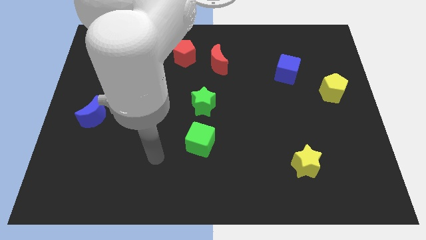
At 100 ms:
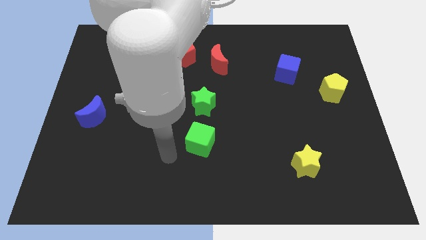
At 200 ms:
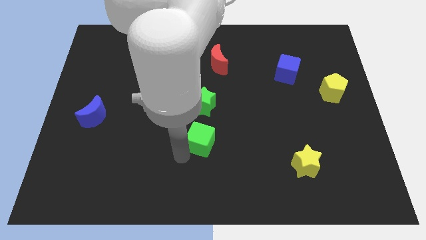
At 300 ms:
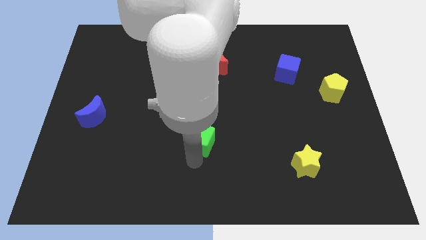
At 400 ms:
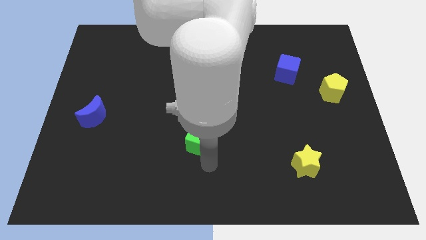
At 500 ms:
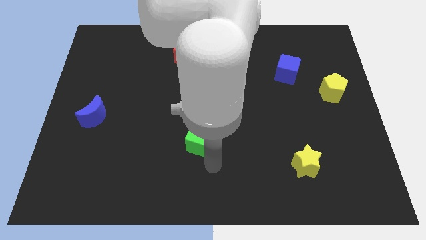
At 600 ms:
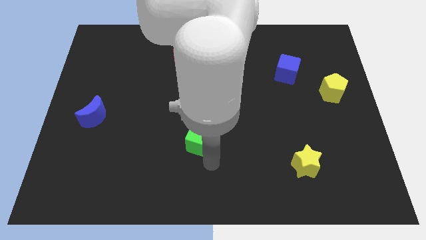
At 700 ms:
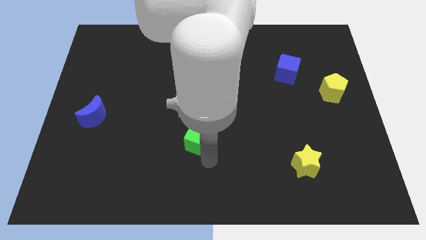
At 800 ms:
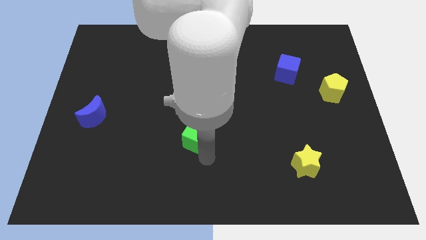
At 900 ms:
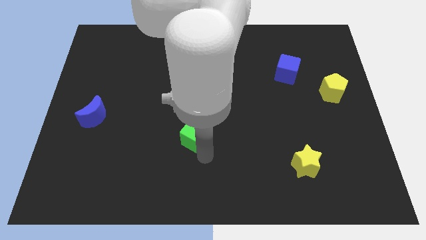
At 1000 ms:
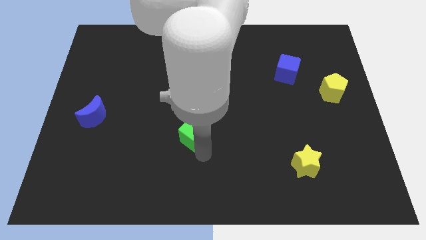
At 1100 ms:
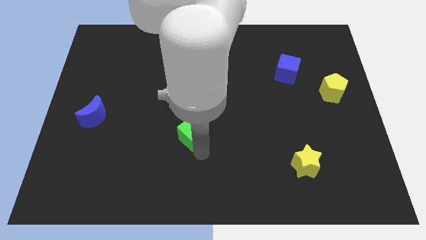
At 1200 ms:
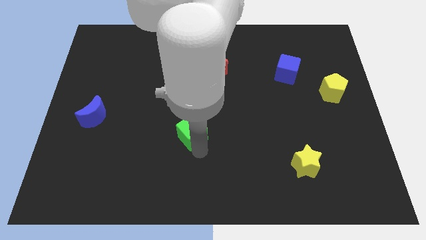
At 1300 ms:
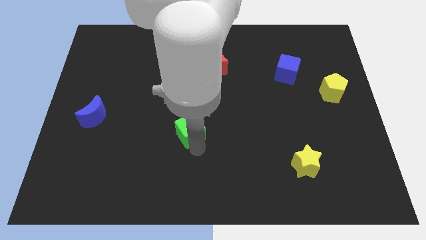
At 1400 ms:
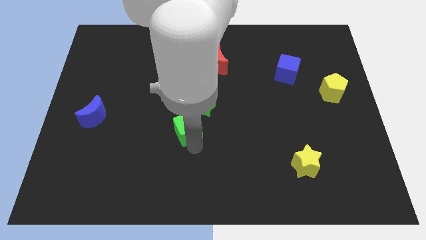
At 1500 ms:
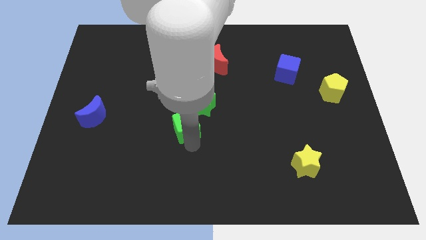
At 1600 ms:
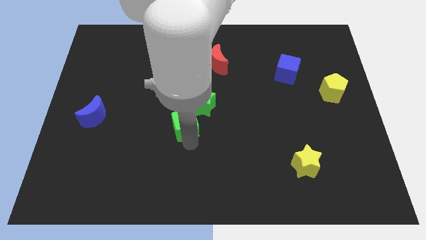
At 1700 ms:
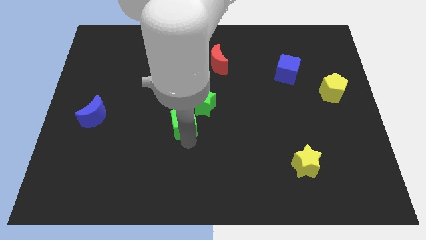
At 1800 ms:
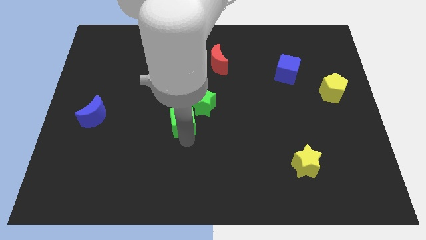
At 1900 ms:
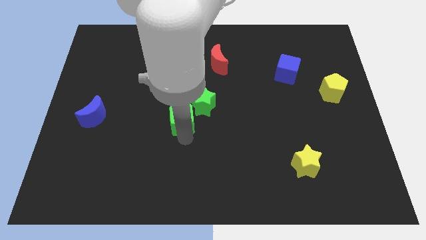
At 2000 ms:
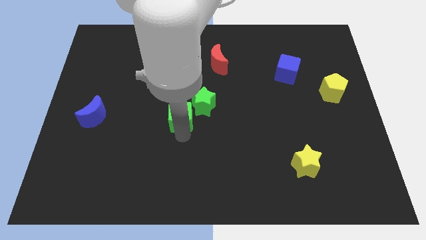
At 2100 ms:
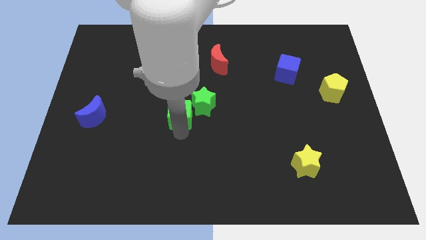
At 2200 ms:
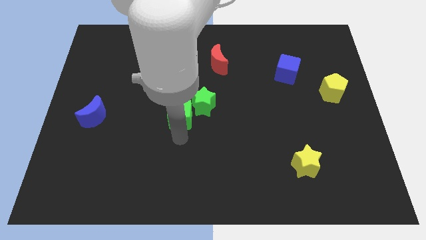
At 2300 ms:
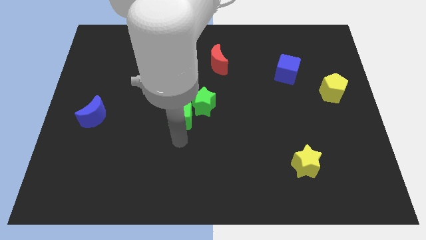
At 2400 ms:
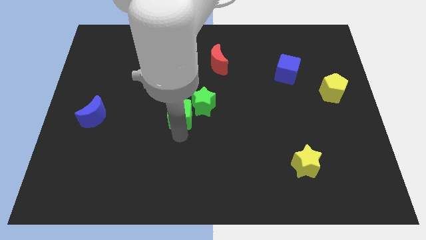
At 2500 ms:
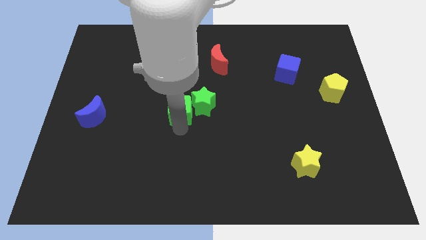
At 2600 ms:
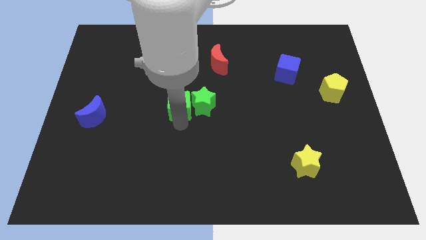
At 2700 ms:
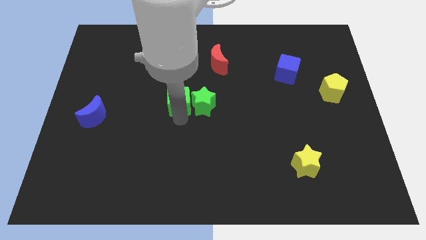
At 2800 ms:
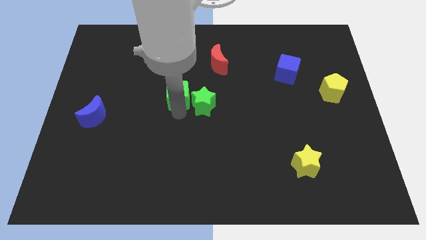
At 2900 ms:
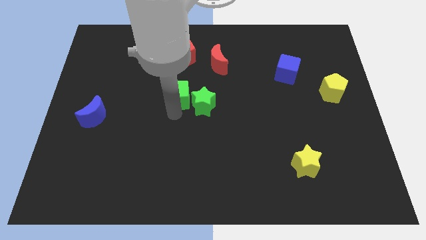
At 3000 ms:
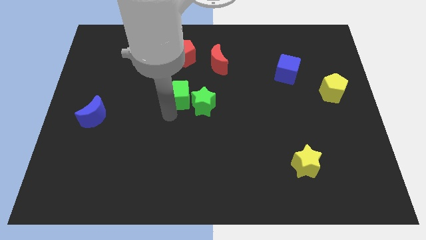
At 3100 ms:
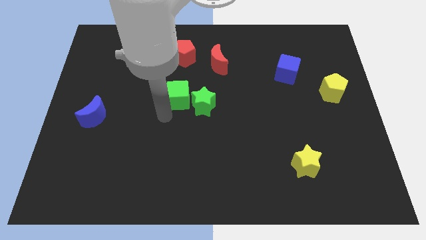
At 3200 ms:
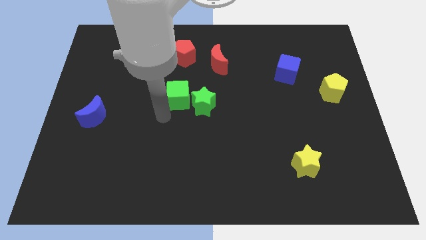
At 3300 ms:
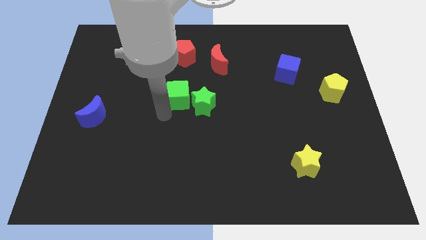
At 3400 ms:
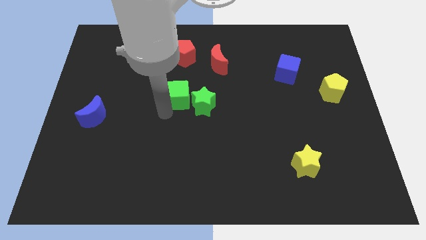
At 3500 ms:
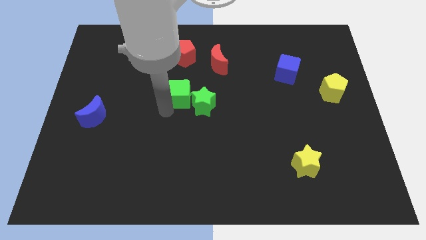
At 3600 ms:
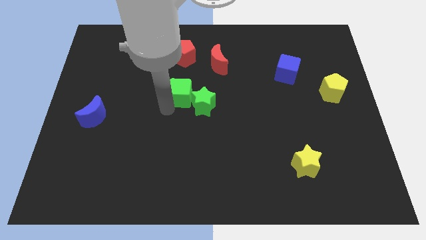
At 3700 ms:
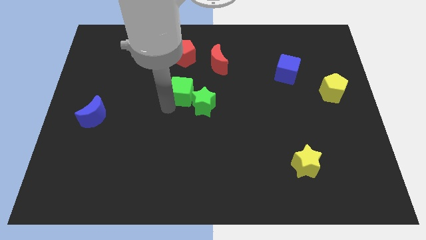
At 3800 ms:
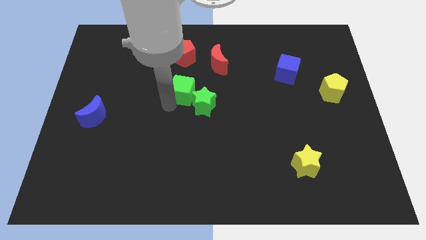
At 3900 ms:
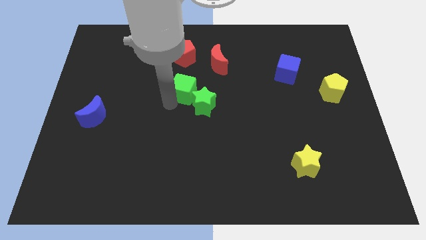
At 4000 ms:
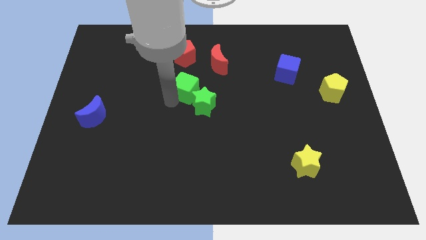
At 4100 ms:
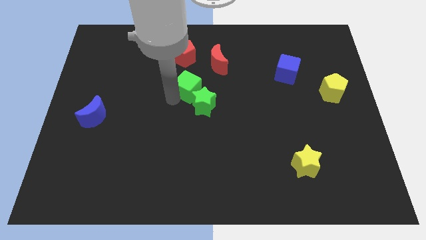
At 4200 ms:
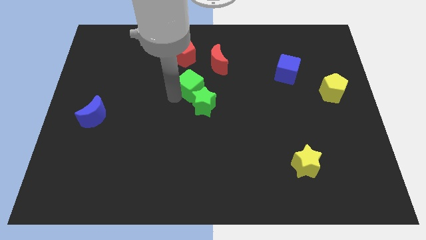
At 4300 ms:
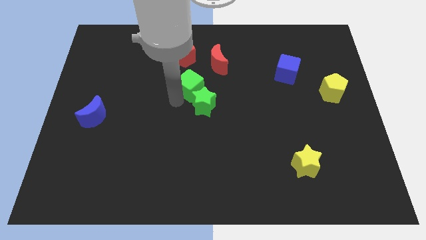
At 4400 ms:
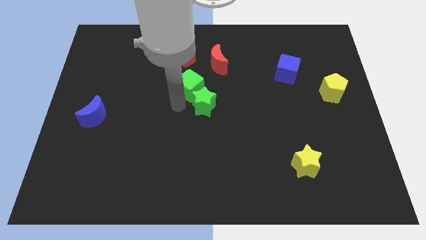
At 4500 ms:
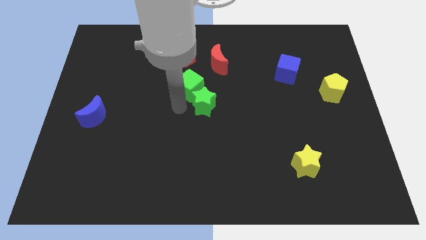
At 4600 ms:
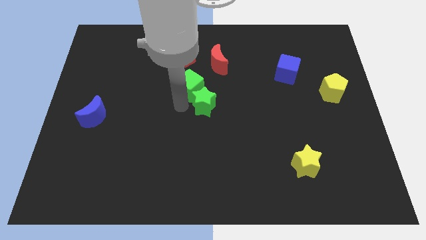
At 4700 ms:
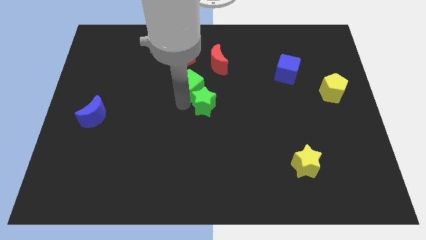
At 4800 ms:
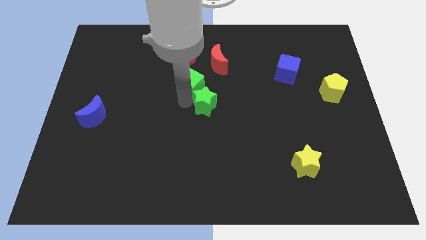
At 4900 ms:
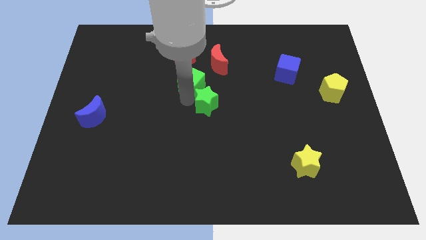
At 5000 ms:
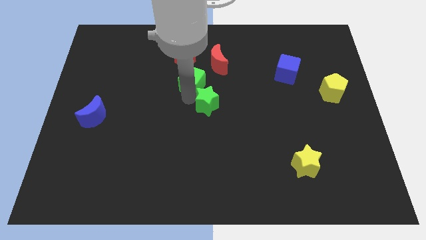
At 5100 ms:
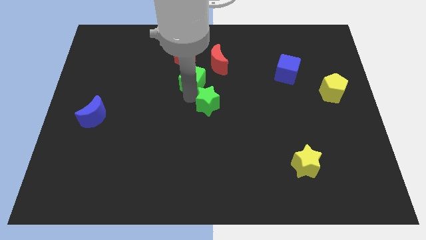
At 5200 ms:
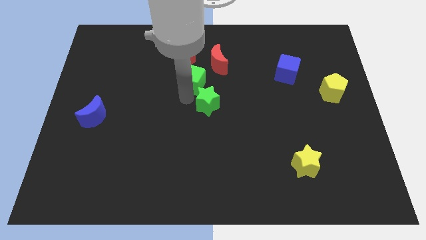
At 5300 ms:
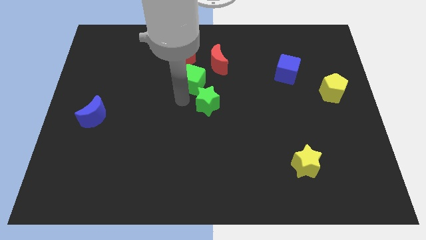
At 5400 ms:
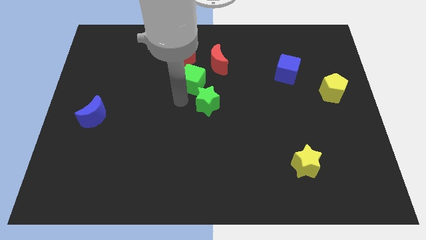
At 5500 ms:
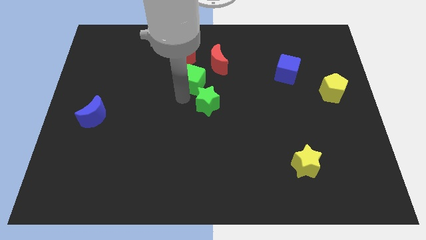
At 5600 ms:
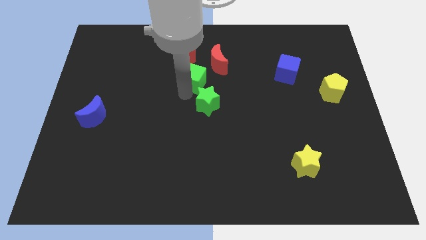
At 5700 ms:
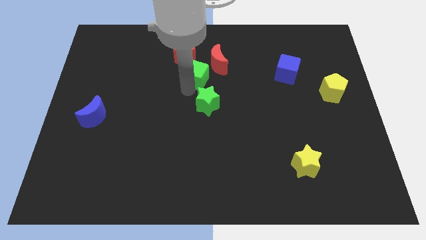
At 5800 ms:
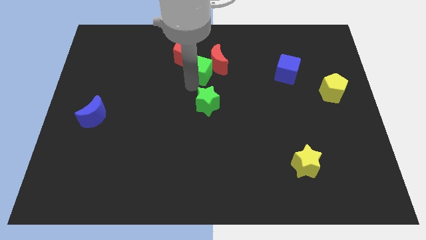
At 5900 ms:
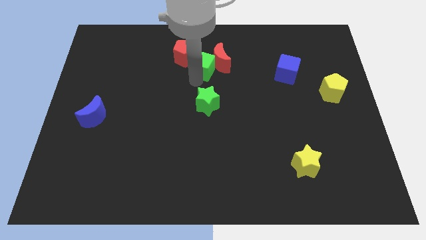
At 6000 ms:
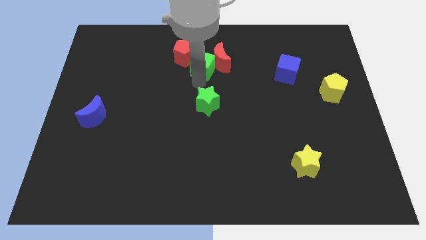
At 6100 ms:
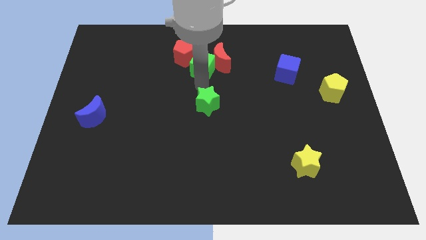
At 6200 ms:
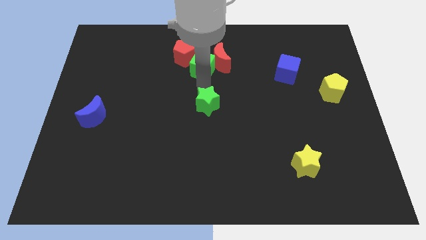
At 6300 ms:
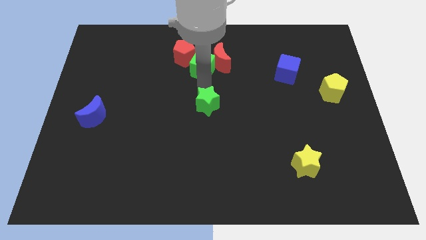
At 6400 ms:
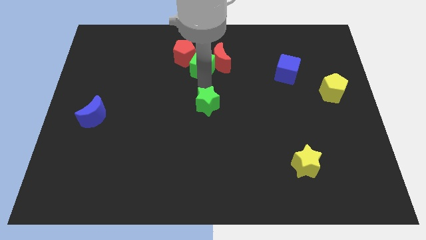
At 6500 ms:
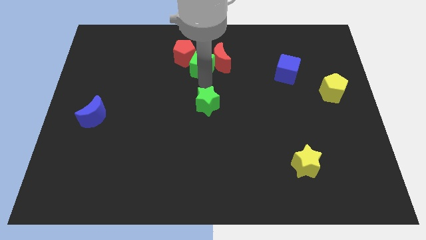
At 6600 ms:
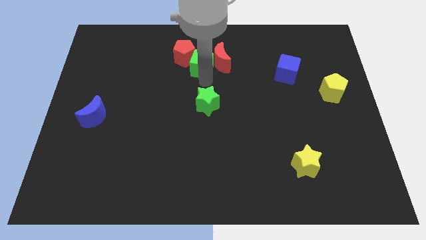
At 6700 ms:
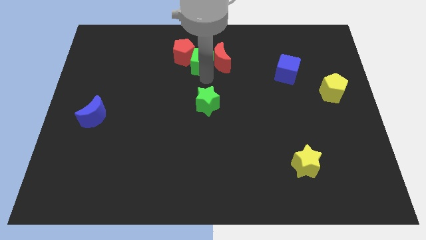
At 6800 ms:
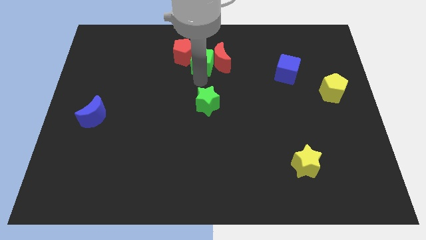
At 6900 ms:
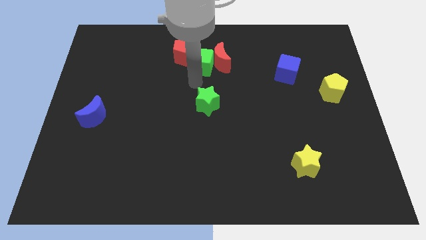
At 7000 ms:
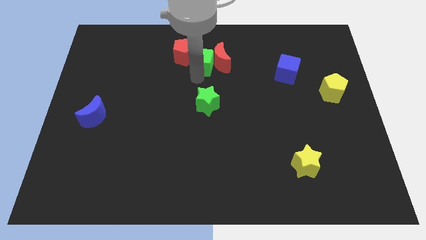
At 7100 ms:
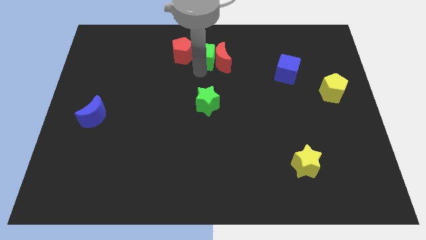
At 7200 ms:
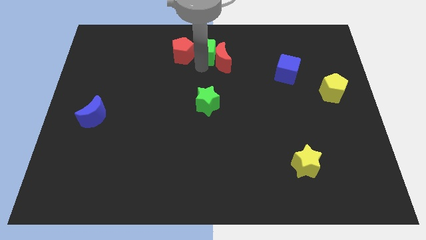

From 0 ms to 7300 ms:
put the green cube to the towards your base
